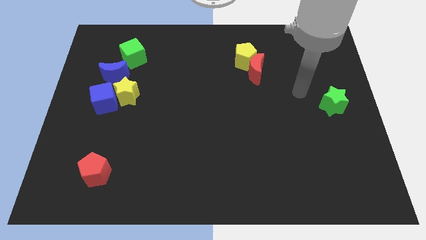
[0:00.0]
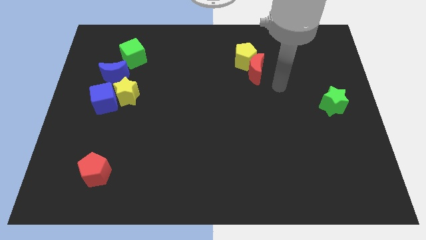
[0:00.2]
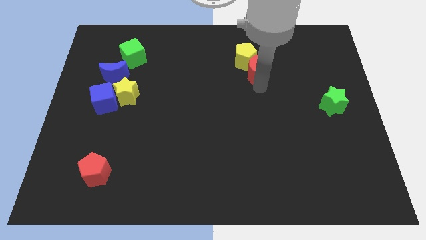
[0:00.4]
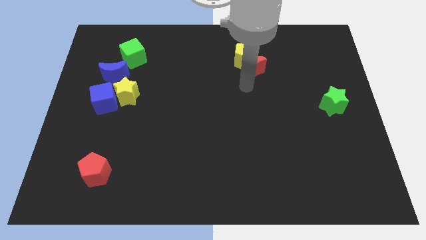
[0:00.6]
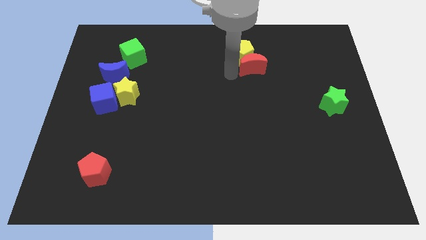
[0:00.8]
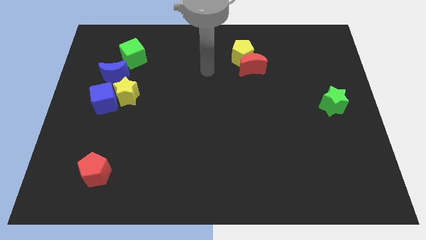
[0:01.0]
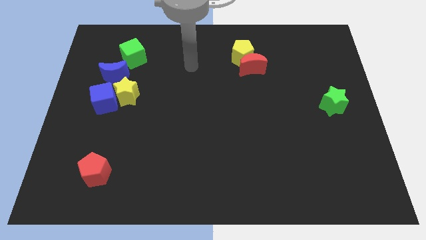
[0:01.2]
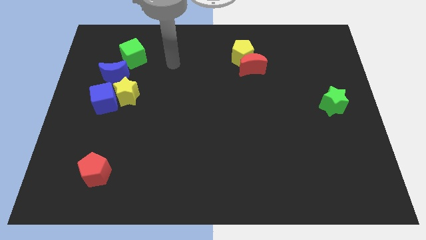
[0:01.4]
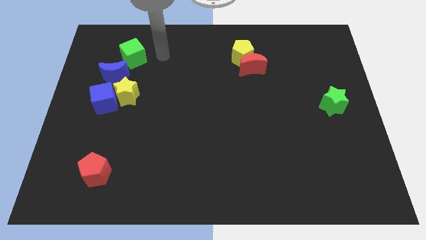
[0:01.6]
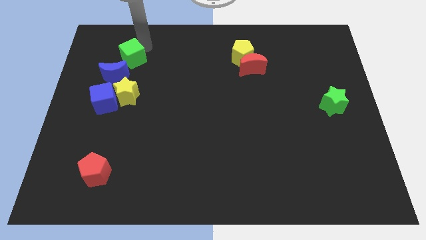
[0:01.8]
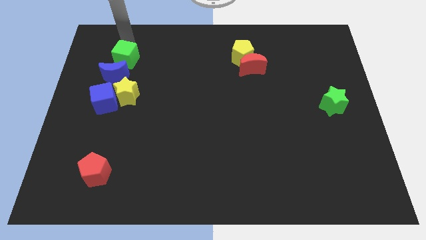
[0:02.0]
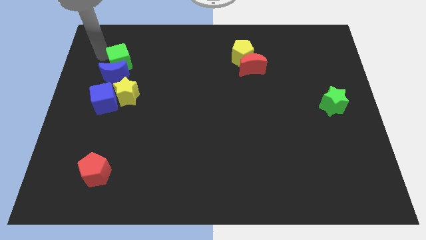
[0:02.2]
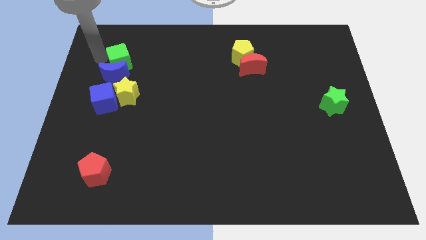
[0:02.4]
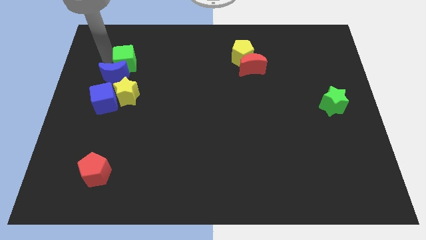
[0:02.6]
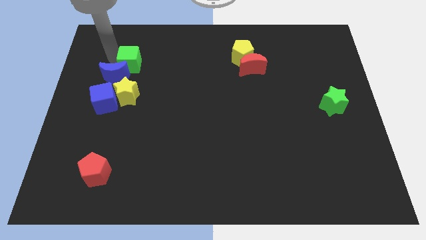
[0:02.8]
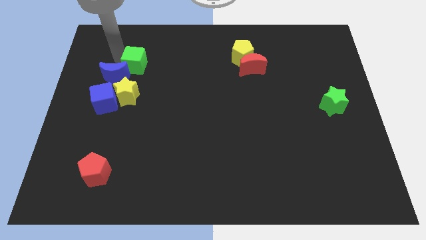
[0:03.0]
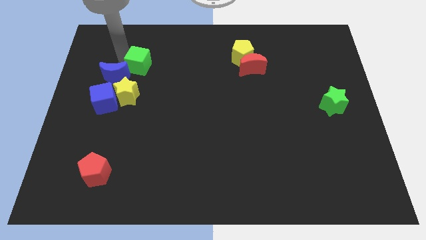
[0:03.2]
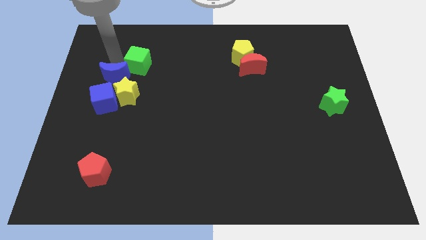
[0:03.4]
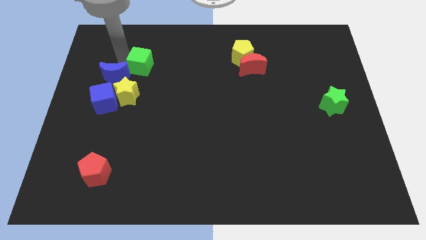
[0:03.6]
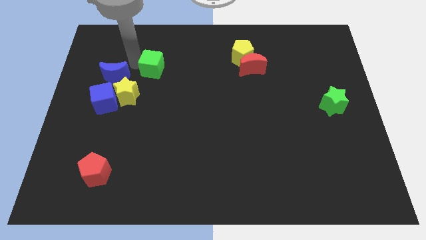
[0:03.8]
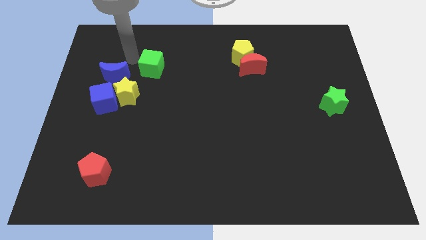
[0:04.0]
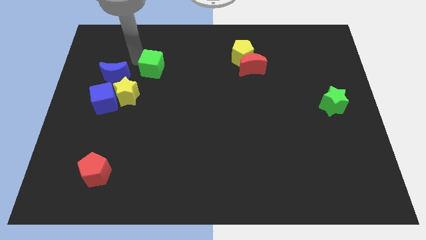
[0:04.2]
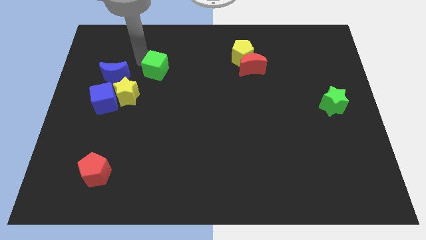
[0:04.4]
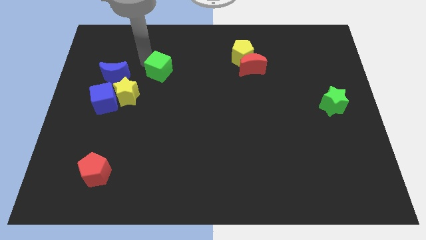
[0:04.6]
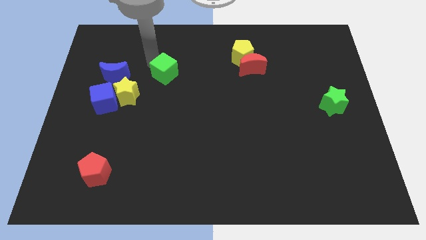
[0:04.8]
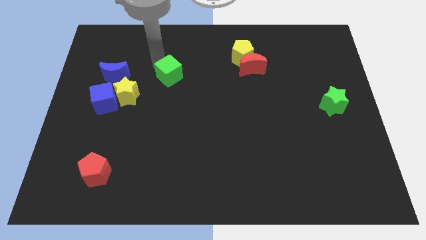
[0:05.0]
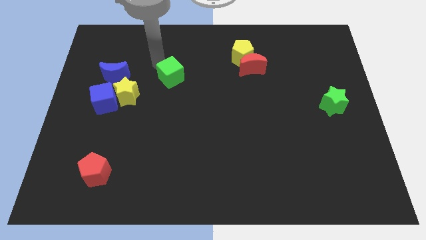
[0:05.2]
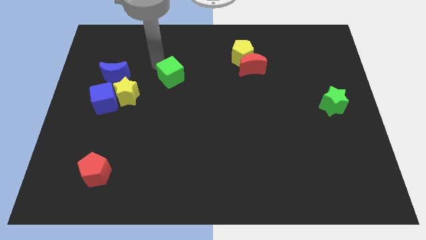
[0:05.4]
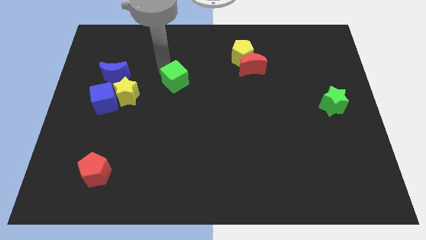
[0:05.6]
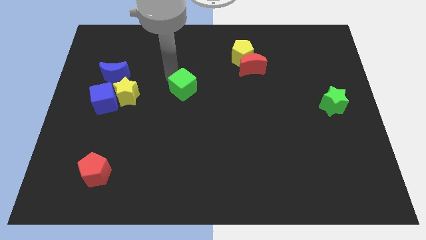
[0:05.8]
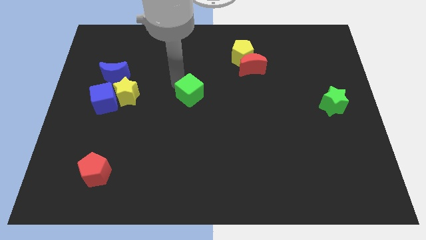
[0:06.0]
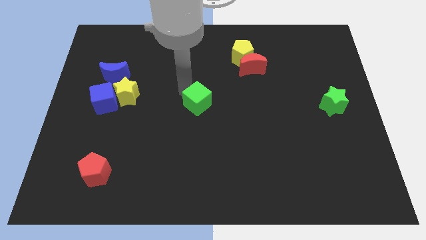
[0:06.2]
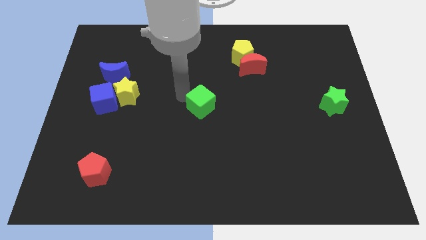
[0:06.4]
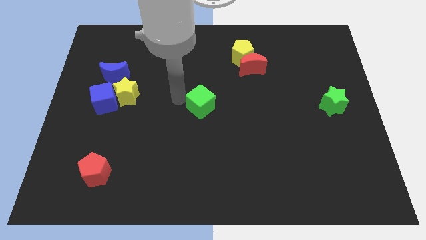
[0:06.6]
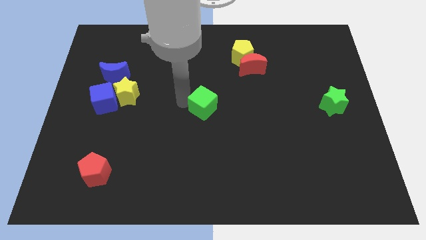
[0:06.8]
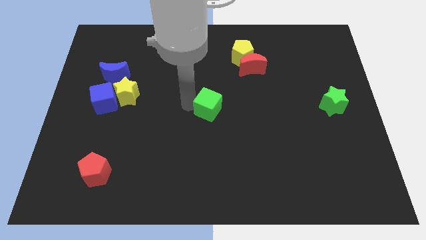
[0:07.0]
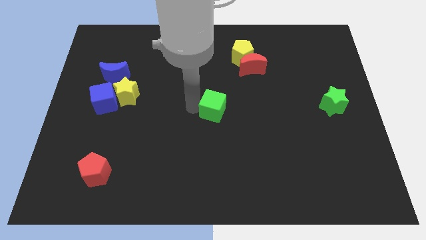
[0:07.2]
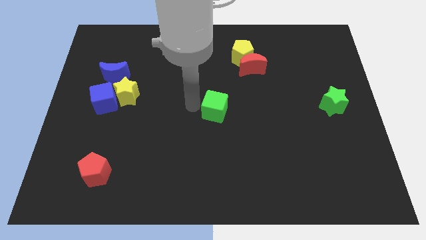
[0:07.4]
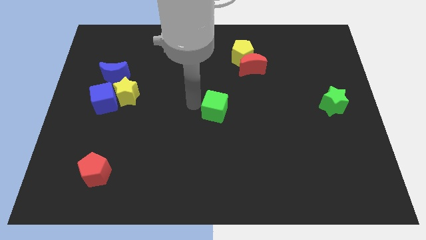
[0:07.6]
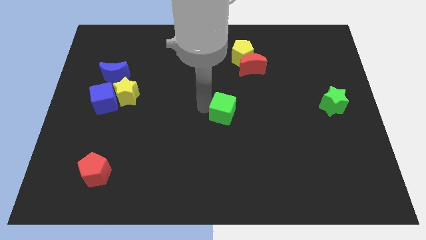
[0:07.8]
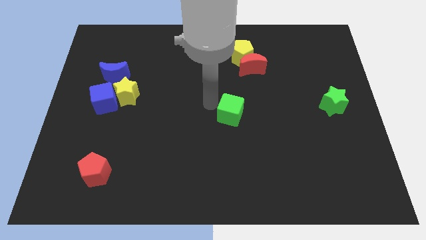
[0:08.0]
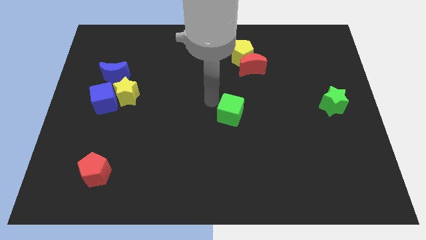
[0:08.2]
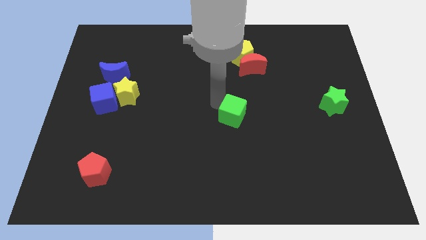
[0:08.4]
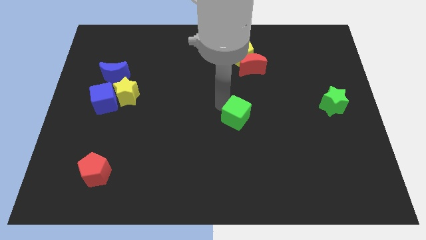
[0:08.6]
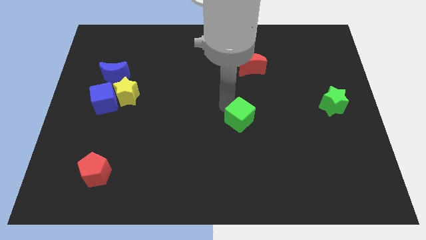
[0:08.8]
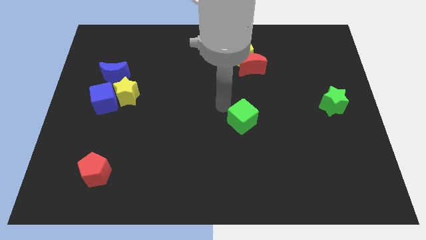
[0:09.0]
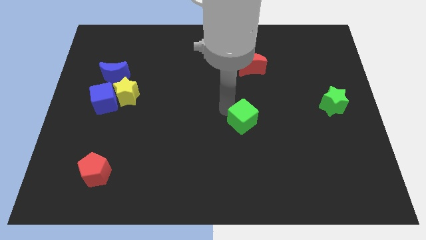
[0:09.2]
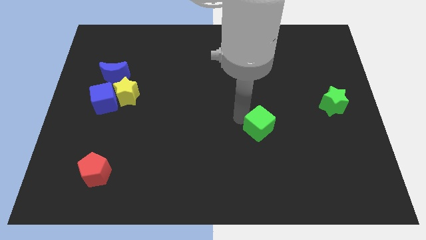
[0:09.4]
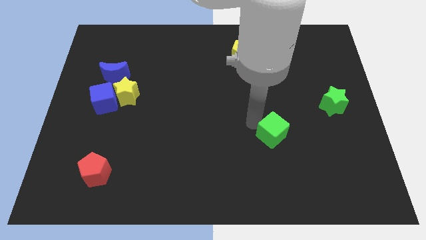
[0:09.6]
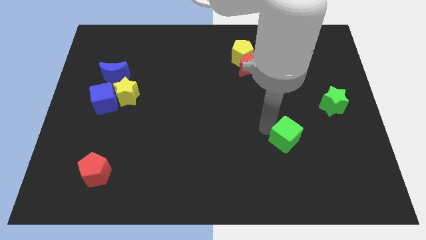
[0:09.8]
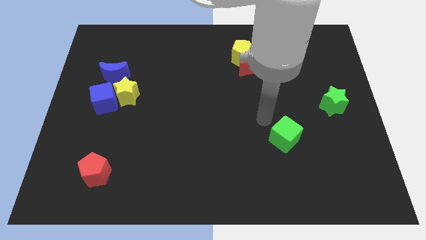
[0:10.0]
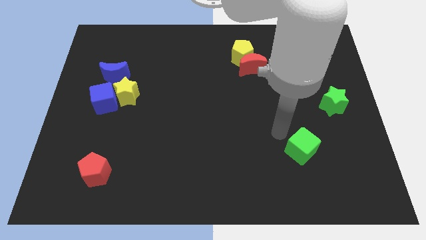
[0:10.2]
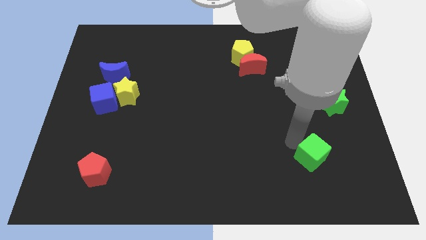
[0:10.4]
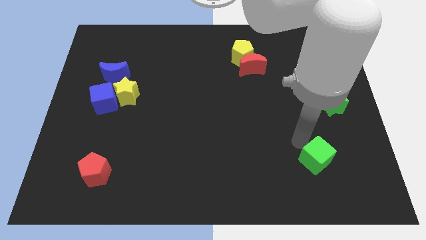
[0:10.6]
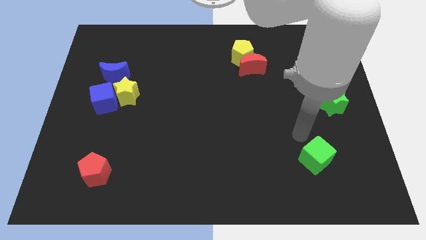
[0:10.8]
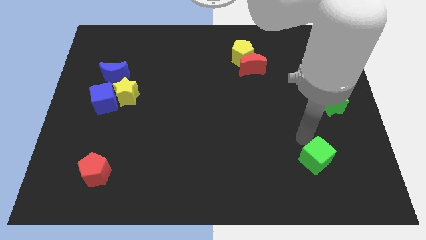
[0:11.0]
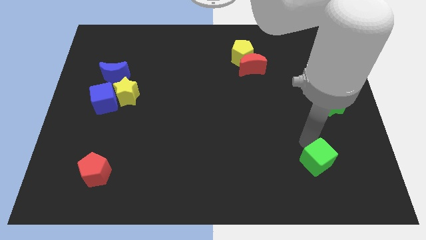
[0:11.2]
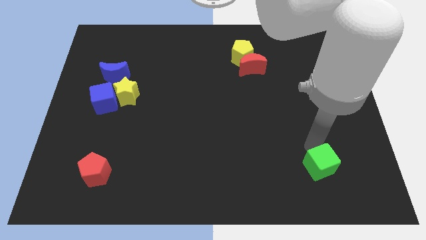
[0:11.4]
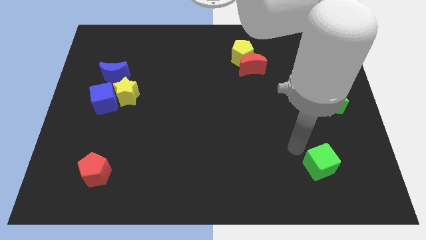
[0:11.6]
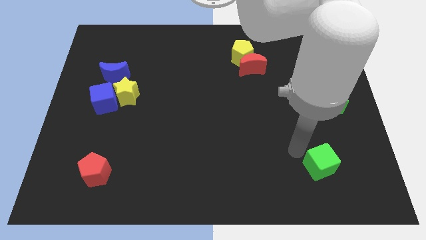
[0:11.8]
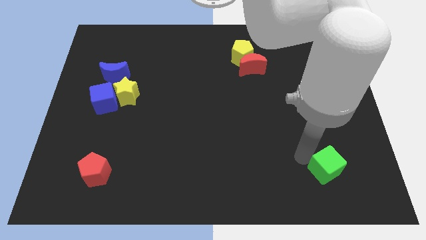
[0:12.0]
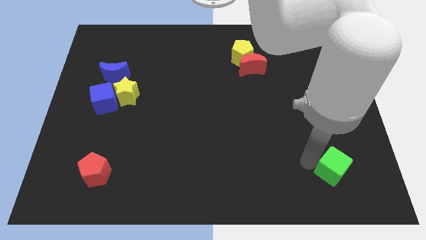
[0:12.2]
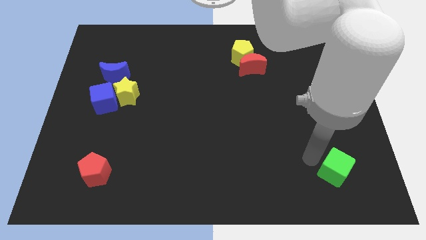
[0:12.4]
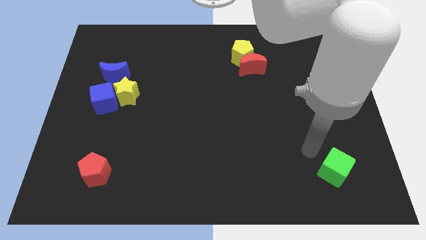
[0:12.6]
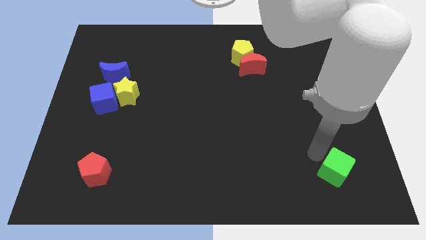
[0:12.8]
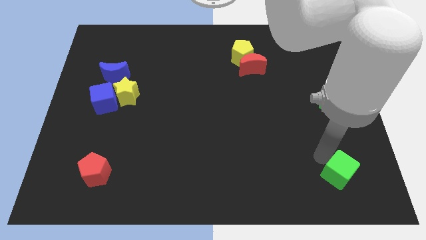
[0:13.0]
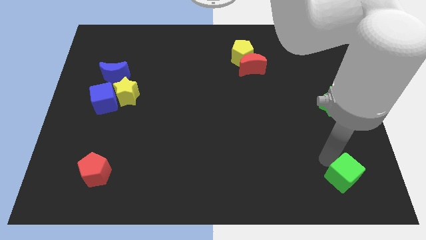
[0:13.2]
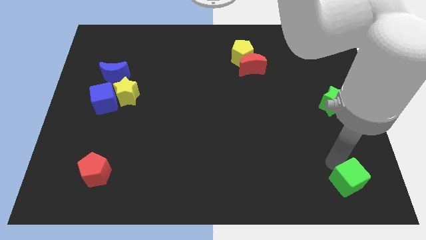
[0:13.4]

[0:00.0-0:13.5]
move the green cube to the bottom right of the board
